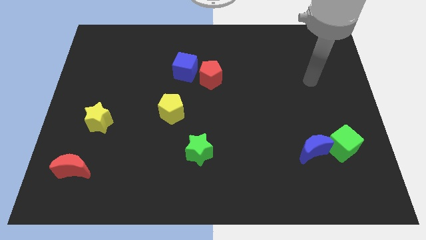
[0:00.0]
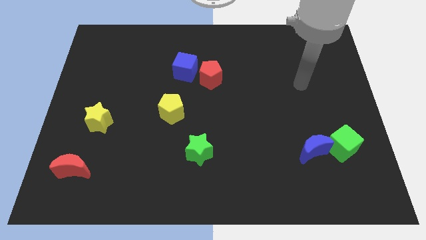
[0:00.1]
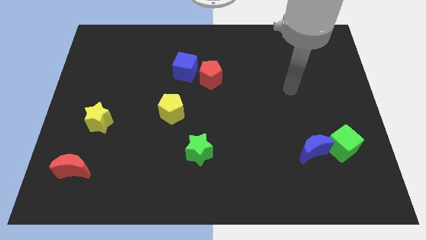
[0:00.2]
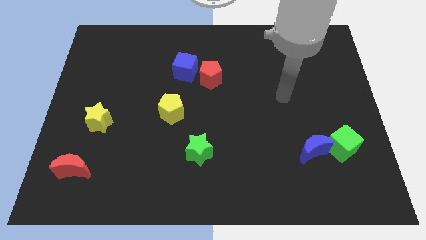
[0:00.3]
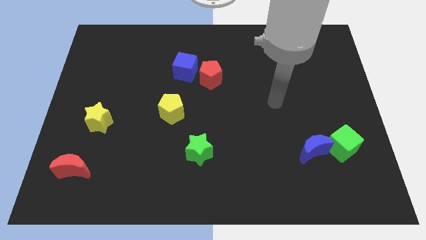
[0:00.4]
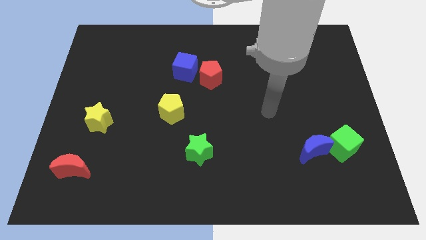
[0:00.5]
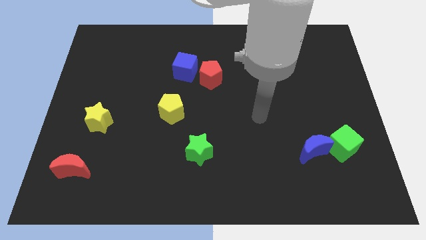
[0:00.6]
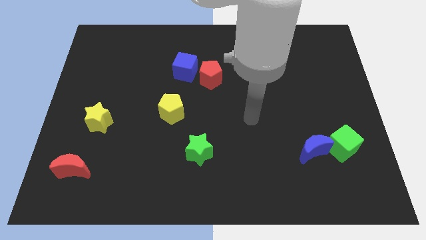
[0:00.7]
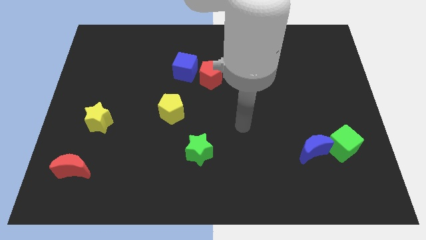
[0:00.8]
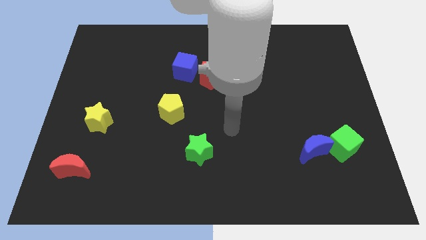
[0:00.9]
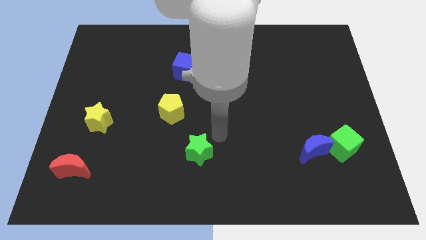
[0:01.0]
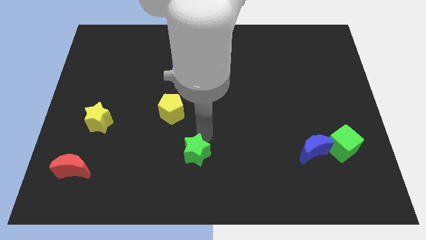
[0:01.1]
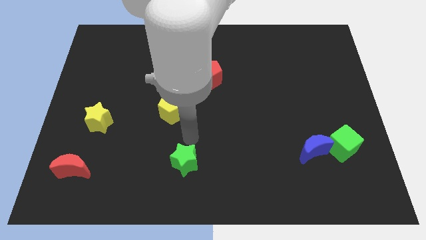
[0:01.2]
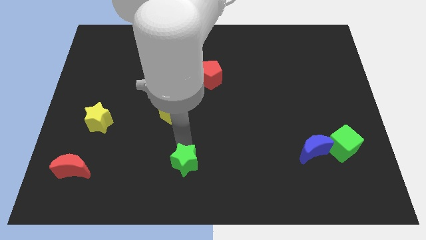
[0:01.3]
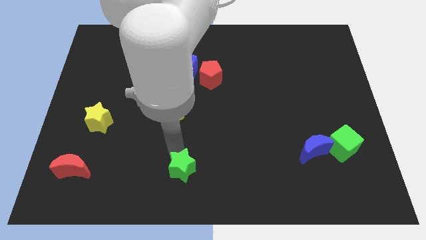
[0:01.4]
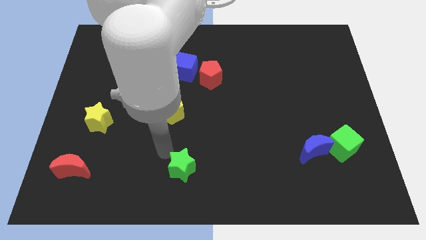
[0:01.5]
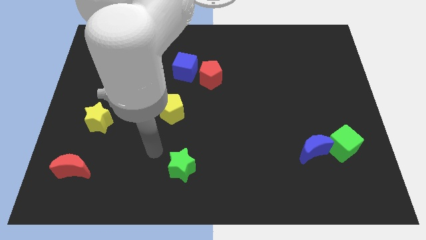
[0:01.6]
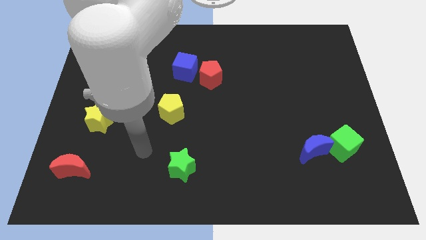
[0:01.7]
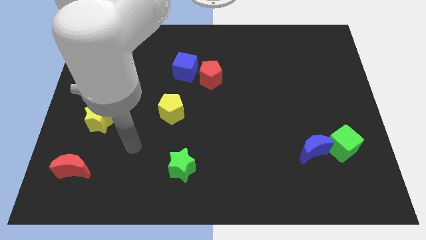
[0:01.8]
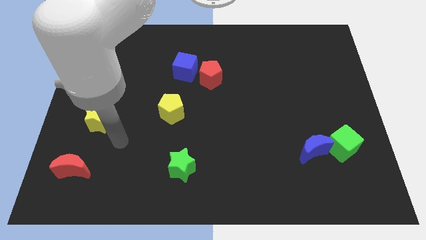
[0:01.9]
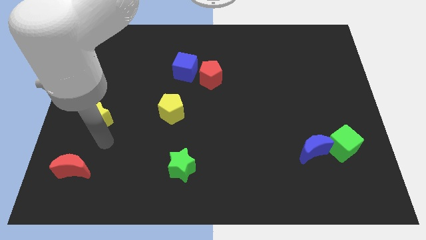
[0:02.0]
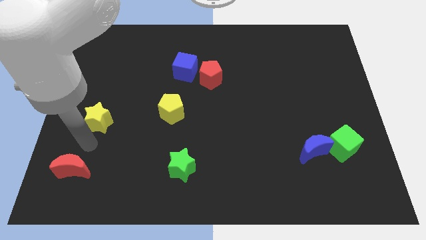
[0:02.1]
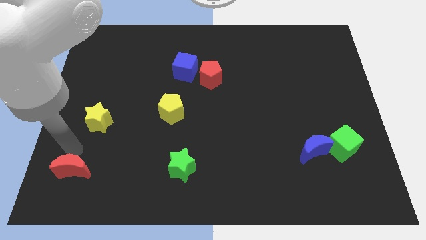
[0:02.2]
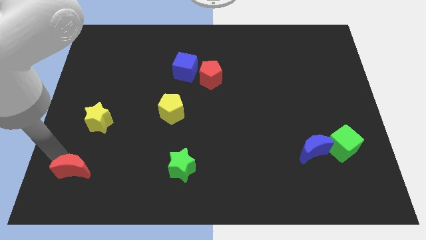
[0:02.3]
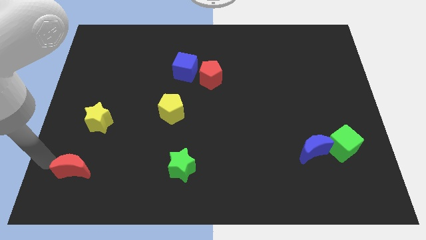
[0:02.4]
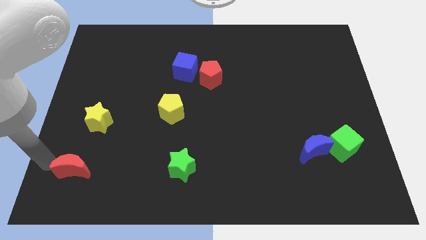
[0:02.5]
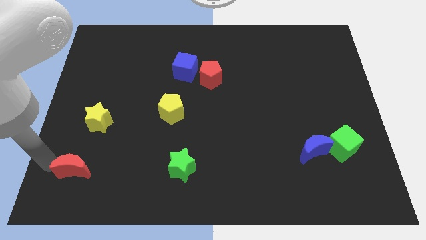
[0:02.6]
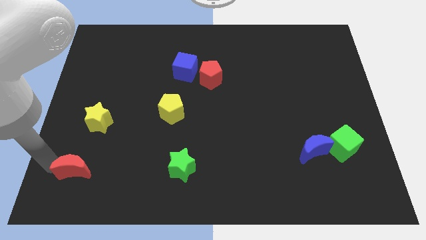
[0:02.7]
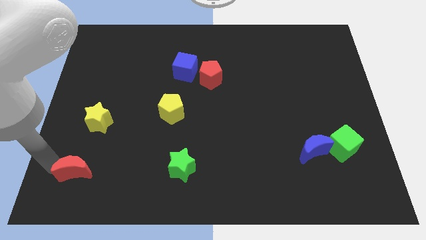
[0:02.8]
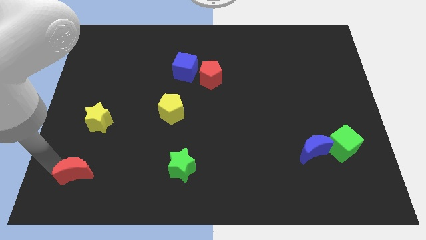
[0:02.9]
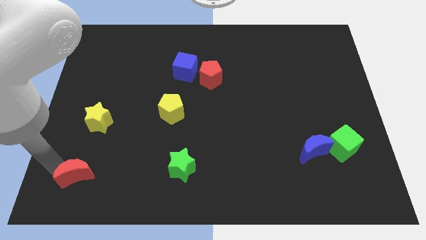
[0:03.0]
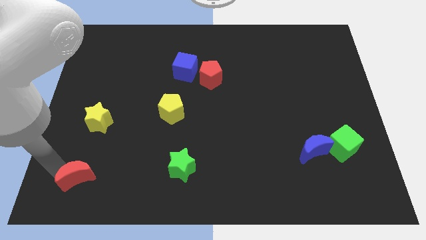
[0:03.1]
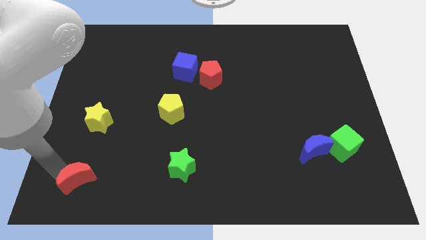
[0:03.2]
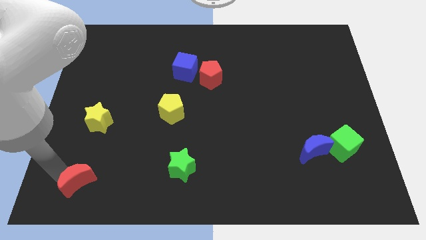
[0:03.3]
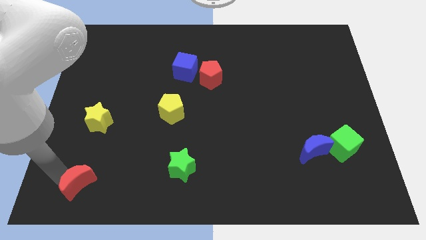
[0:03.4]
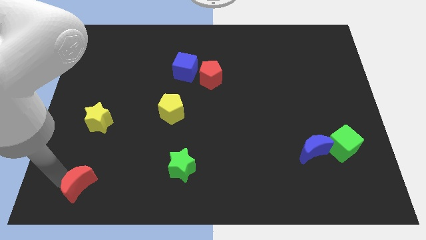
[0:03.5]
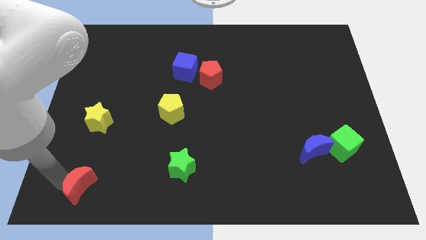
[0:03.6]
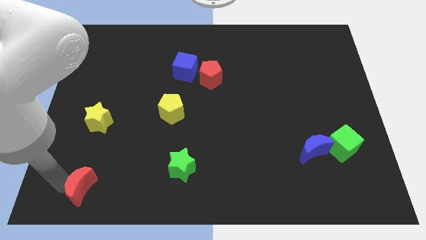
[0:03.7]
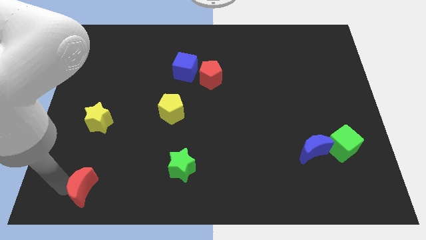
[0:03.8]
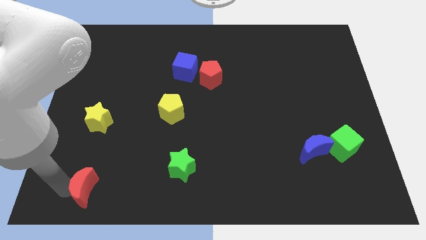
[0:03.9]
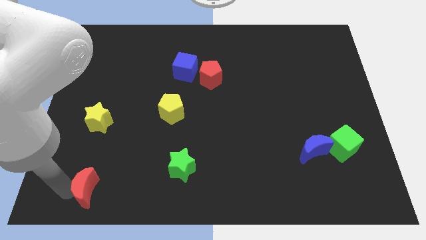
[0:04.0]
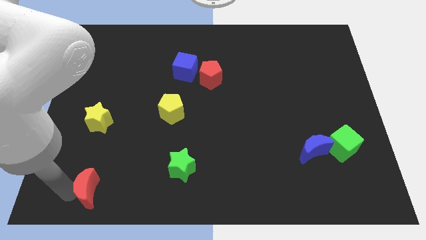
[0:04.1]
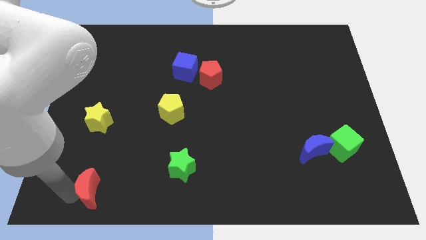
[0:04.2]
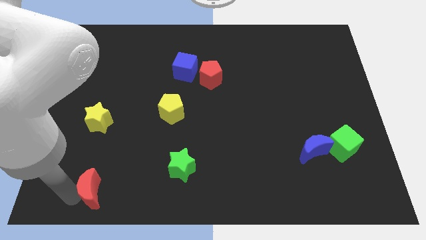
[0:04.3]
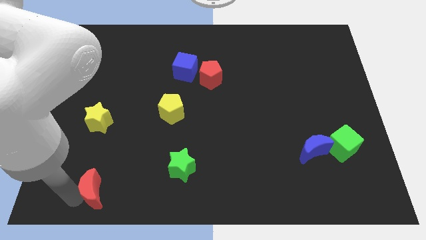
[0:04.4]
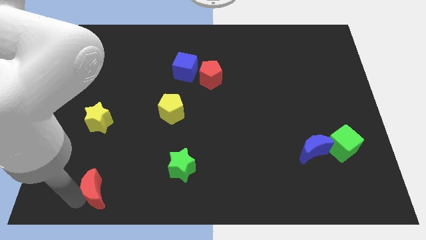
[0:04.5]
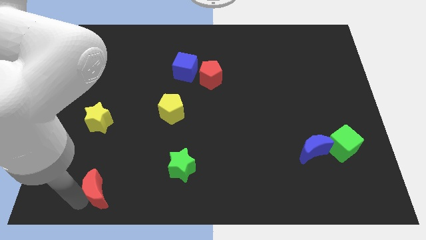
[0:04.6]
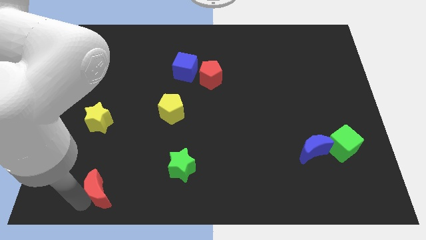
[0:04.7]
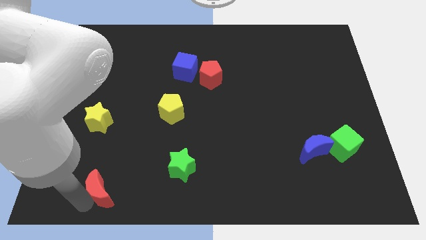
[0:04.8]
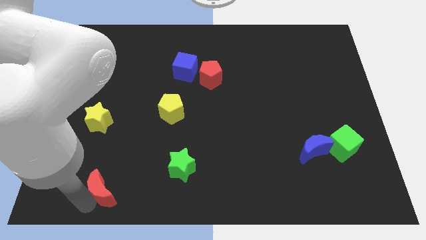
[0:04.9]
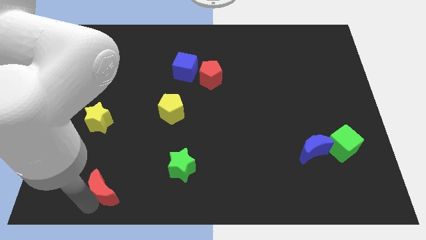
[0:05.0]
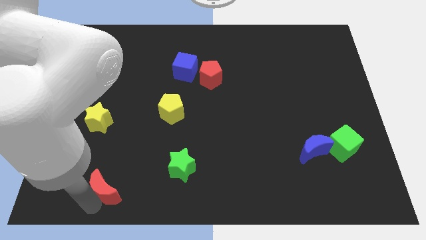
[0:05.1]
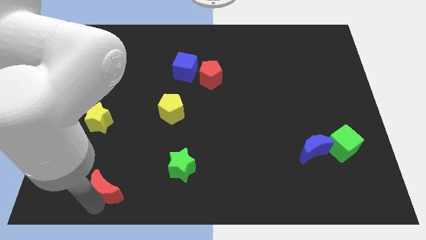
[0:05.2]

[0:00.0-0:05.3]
slightly push the red moon to the right

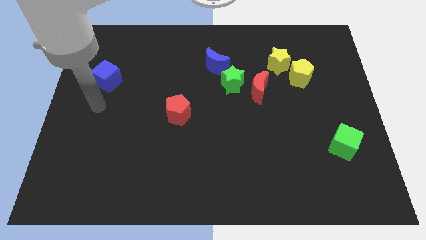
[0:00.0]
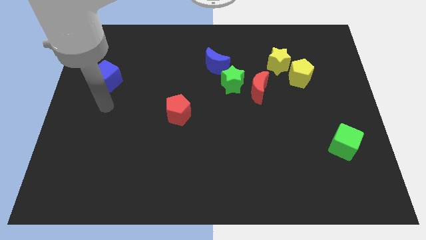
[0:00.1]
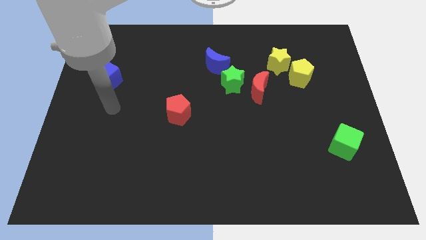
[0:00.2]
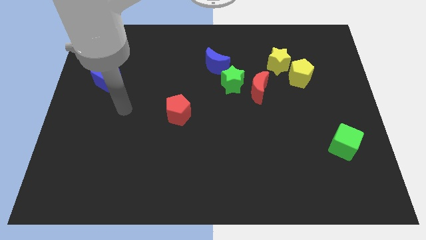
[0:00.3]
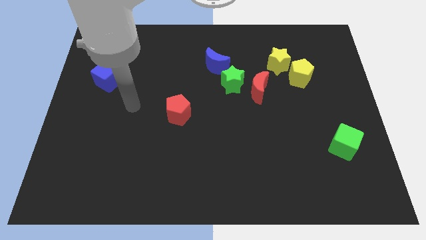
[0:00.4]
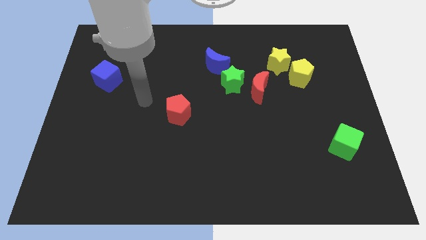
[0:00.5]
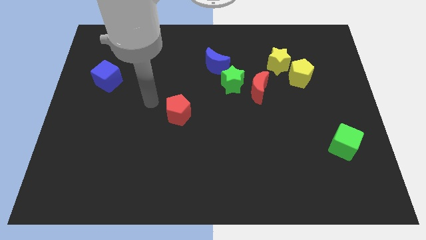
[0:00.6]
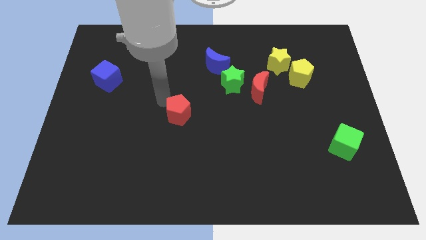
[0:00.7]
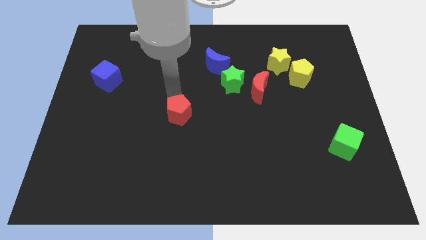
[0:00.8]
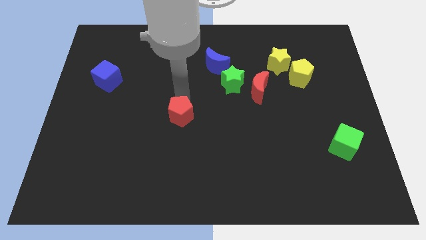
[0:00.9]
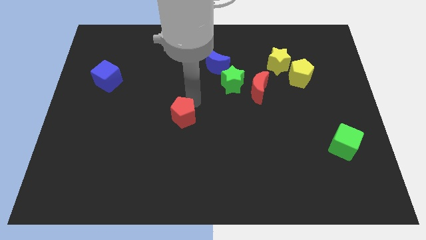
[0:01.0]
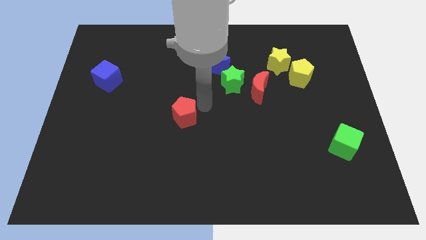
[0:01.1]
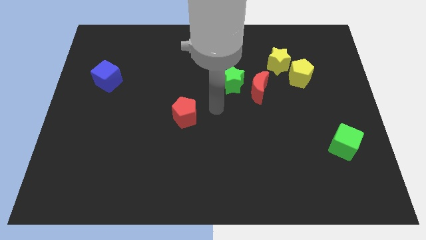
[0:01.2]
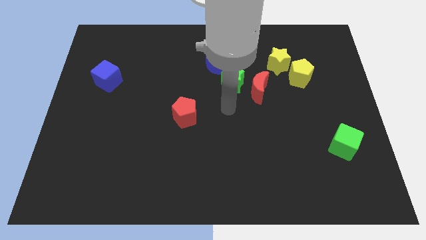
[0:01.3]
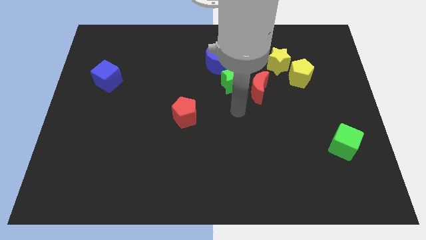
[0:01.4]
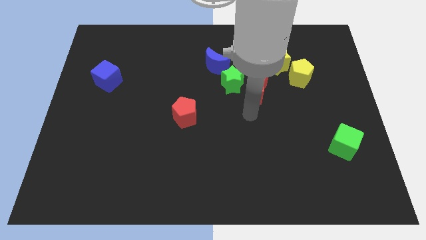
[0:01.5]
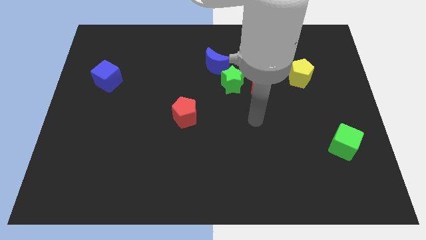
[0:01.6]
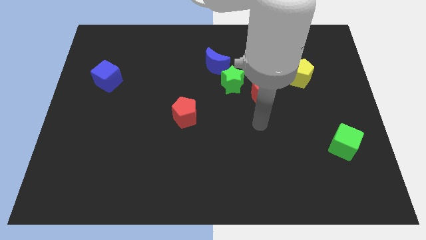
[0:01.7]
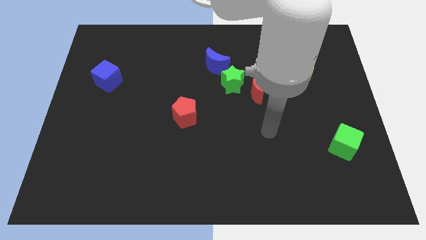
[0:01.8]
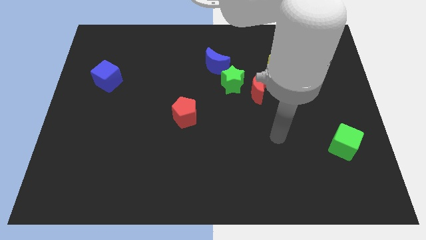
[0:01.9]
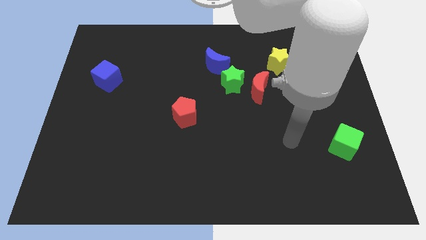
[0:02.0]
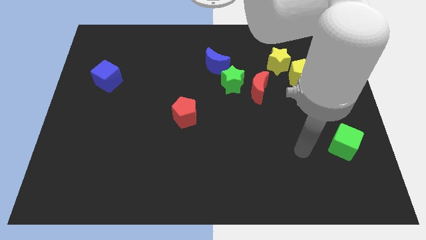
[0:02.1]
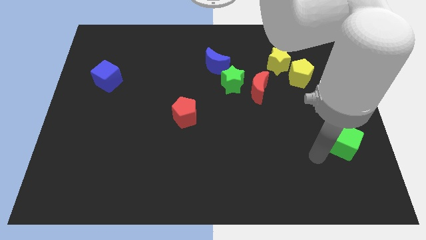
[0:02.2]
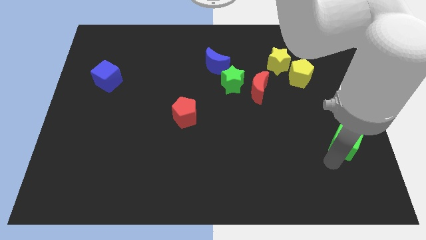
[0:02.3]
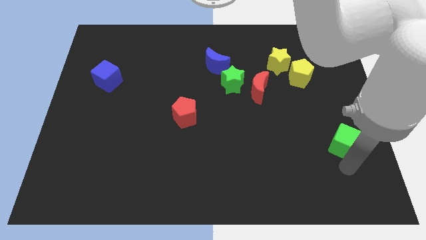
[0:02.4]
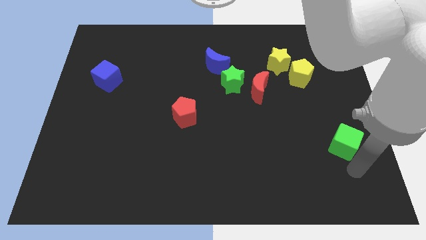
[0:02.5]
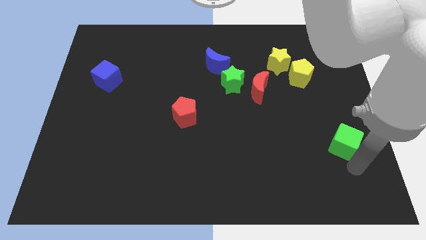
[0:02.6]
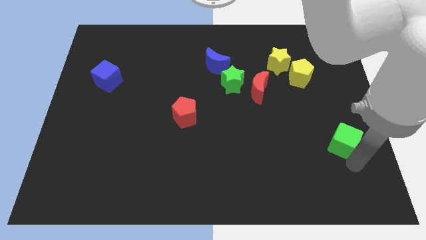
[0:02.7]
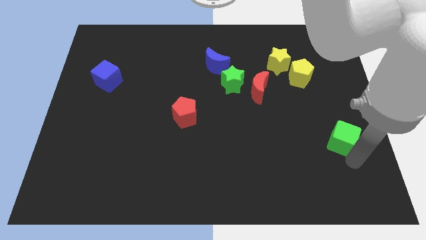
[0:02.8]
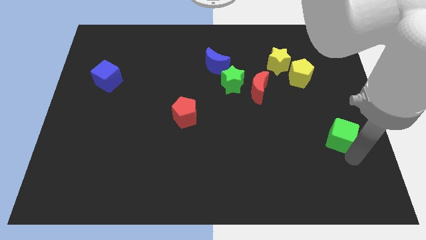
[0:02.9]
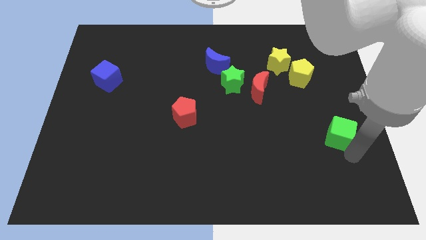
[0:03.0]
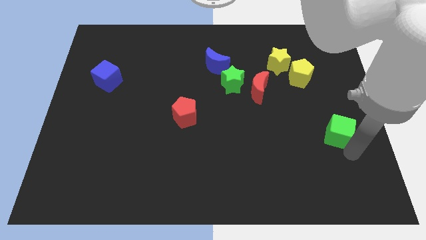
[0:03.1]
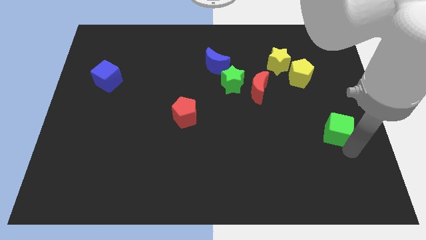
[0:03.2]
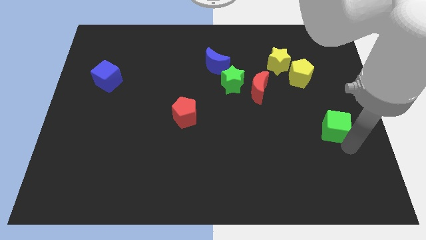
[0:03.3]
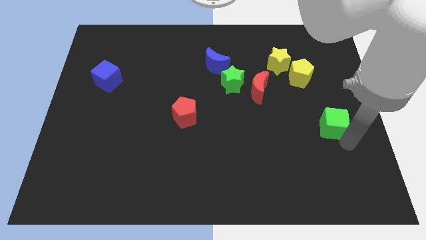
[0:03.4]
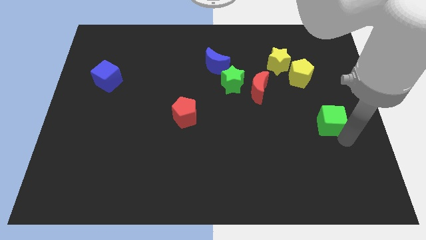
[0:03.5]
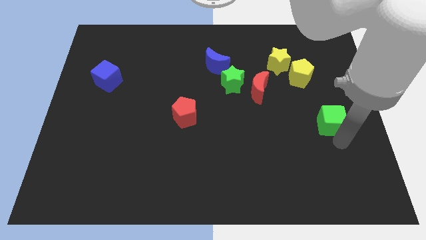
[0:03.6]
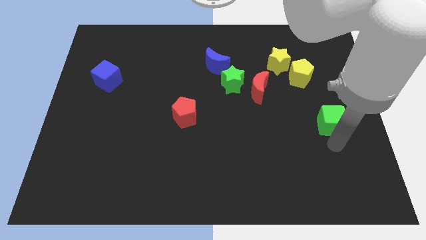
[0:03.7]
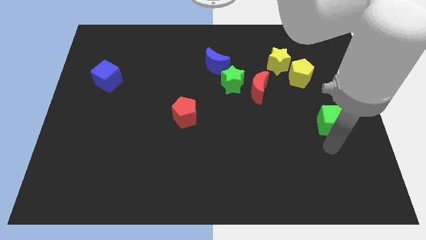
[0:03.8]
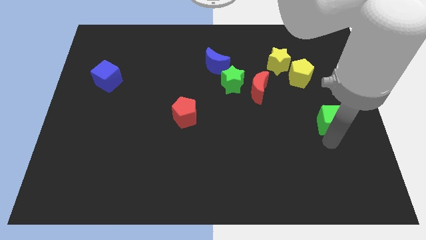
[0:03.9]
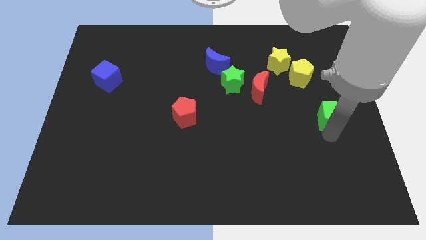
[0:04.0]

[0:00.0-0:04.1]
slightly slide the green cube upwards
